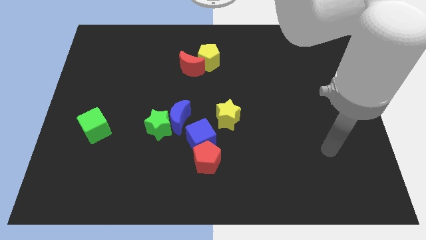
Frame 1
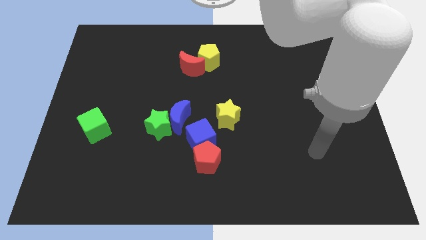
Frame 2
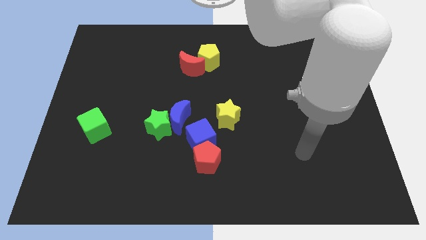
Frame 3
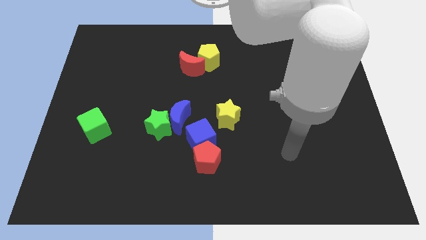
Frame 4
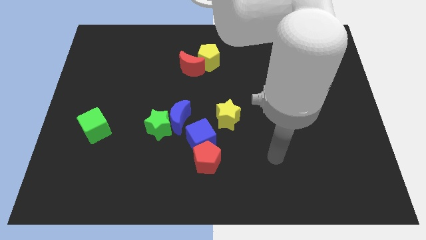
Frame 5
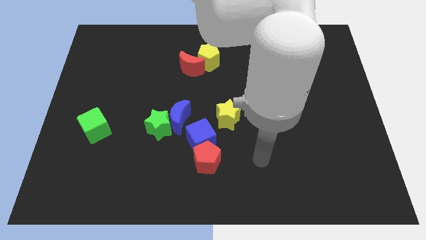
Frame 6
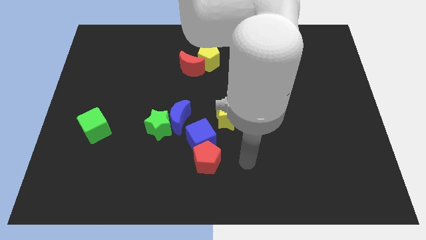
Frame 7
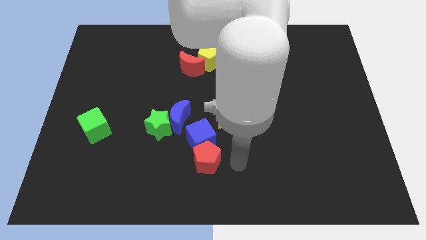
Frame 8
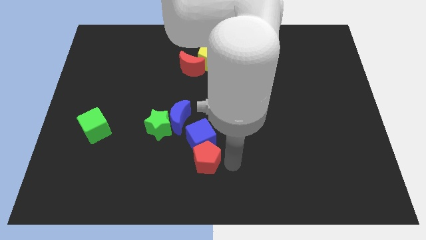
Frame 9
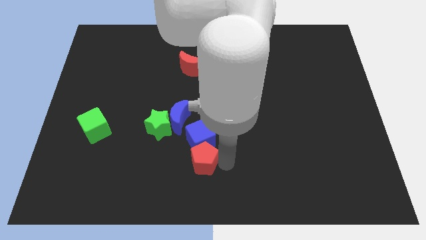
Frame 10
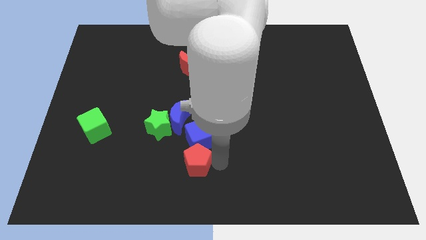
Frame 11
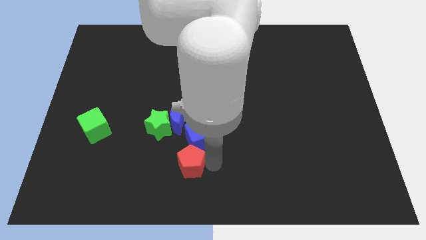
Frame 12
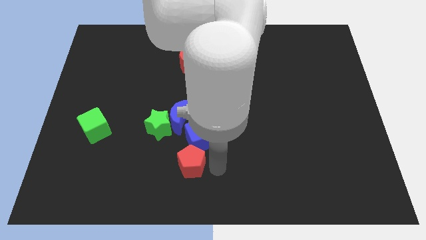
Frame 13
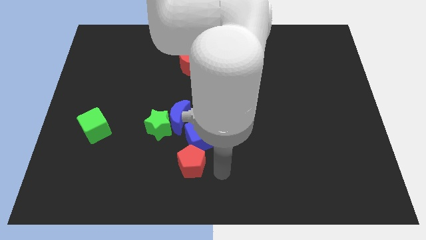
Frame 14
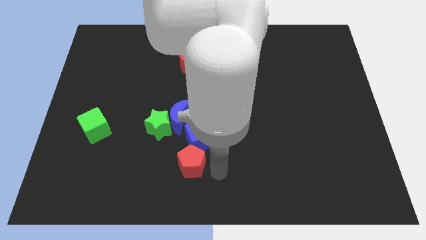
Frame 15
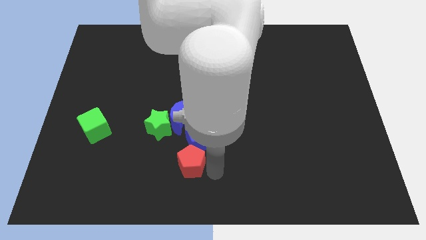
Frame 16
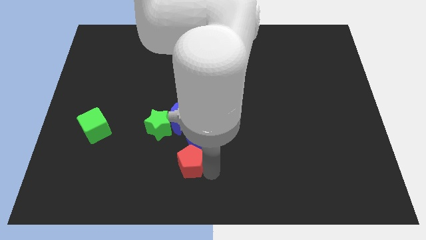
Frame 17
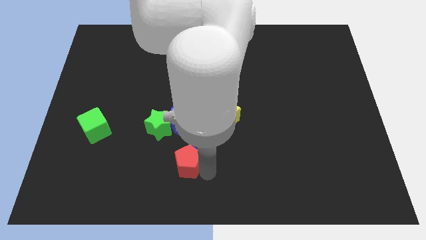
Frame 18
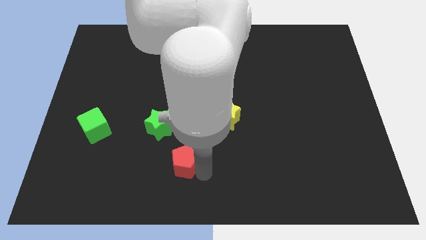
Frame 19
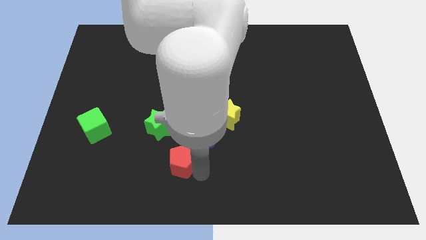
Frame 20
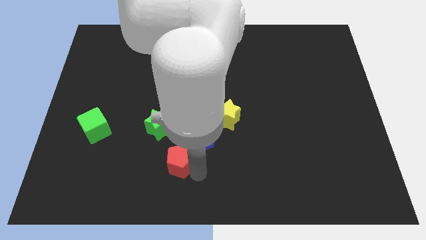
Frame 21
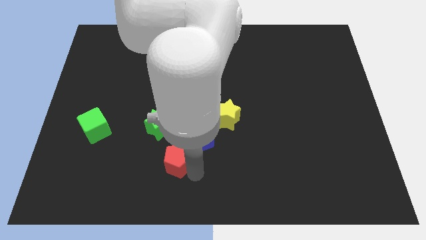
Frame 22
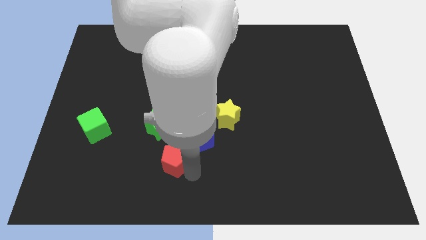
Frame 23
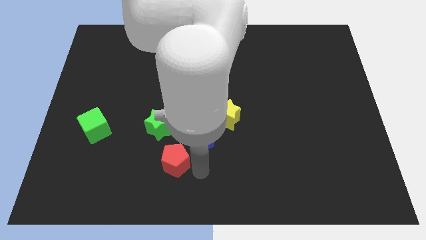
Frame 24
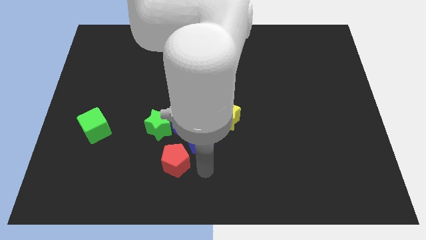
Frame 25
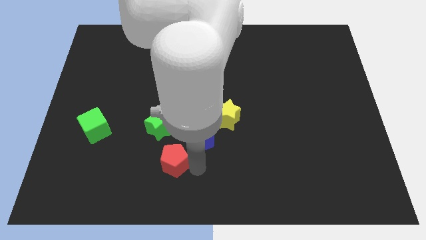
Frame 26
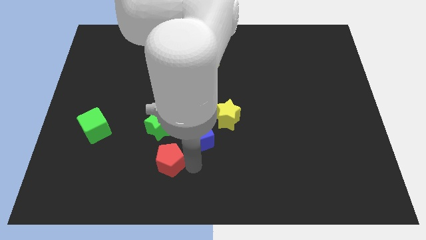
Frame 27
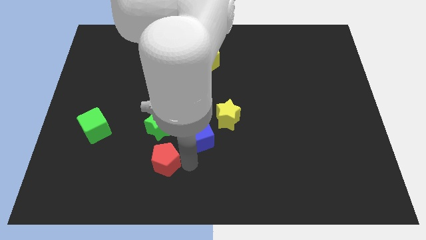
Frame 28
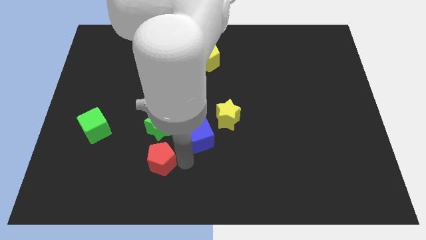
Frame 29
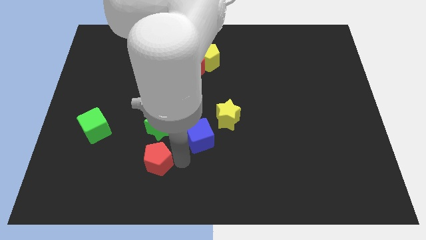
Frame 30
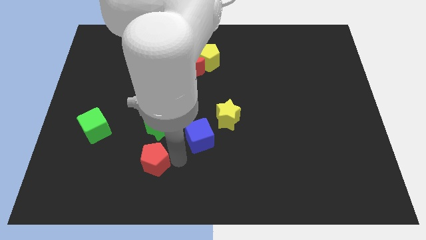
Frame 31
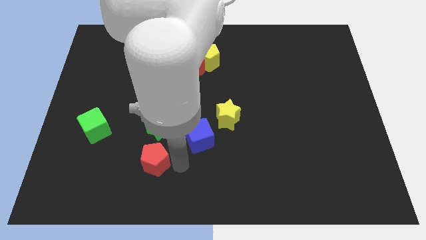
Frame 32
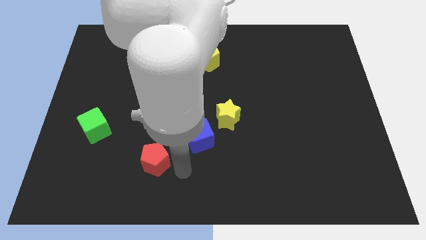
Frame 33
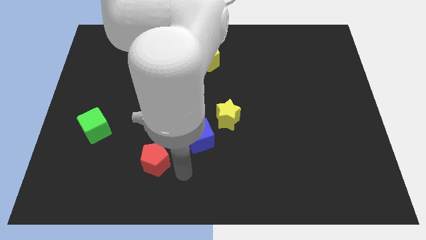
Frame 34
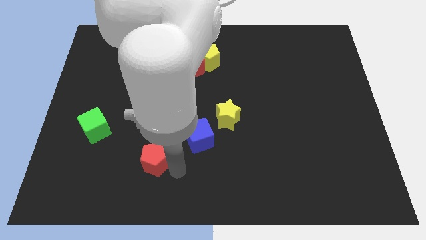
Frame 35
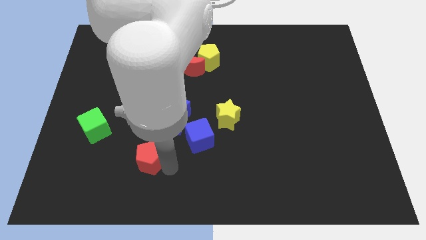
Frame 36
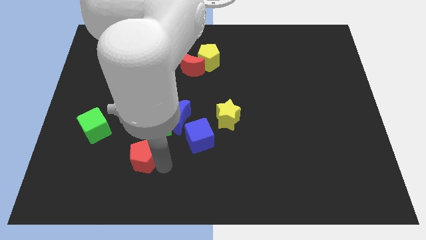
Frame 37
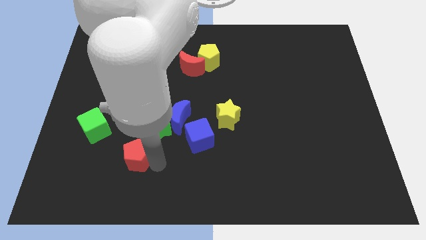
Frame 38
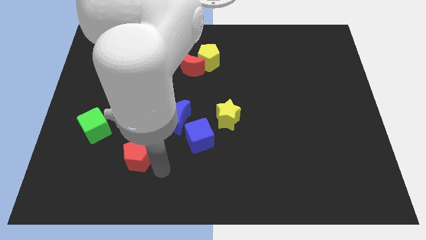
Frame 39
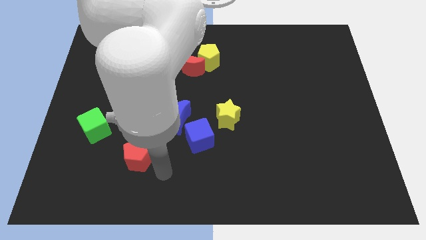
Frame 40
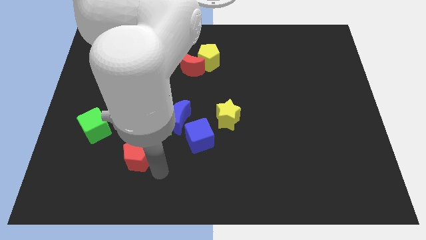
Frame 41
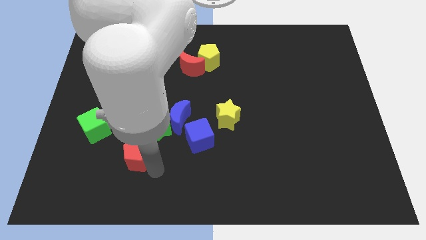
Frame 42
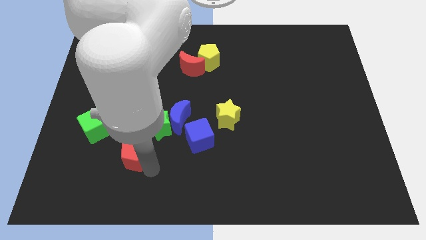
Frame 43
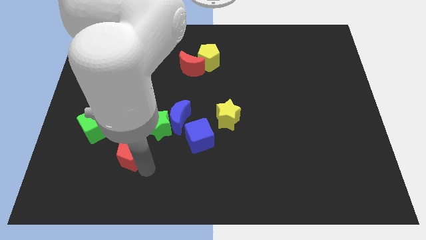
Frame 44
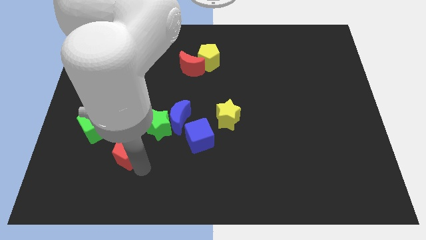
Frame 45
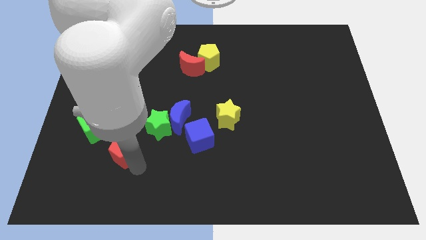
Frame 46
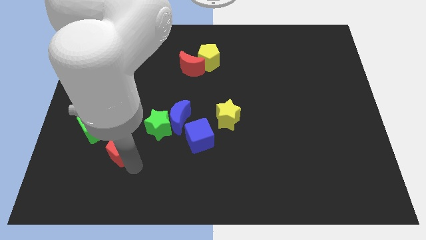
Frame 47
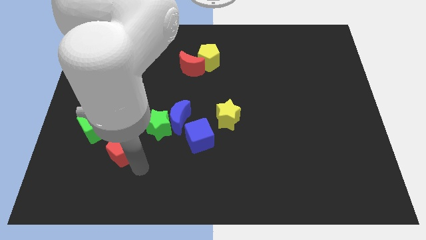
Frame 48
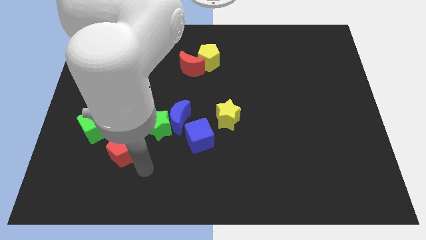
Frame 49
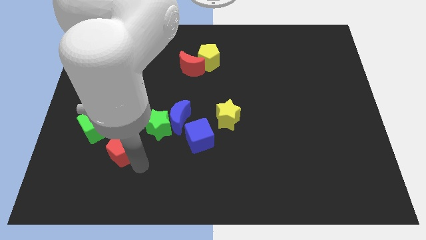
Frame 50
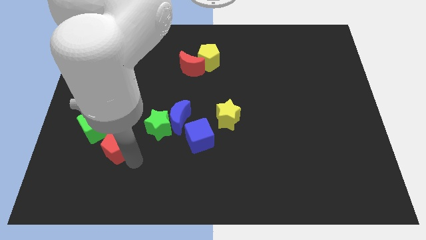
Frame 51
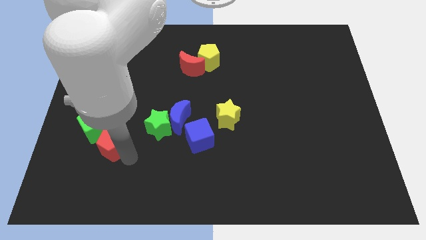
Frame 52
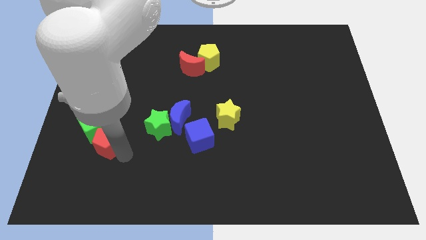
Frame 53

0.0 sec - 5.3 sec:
slide the red pentagon to the green cube

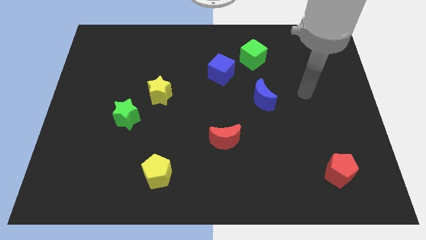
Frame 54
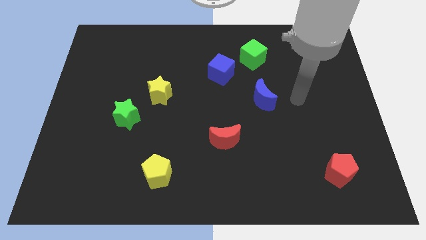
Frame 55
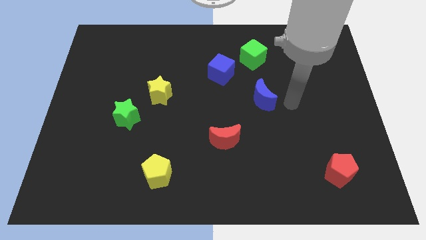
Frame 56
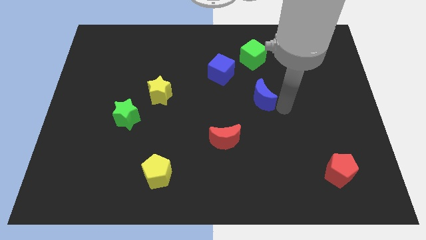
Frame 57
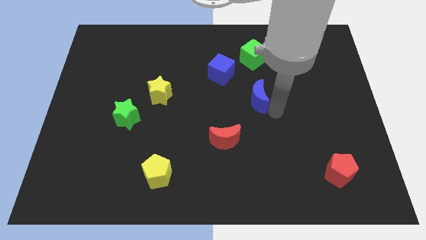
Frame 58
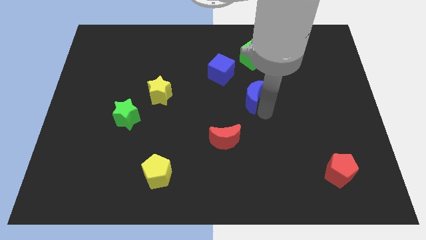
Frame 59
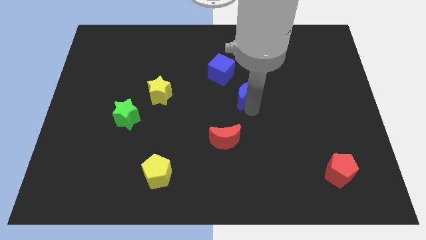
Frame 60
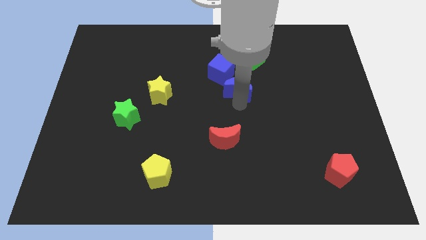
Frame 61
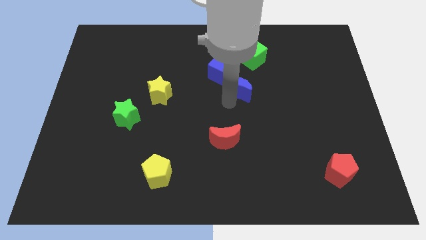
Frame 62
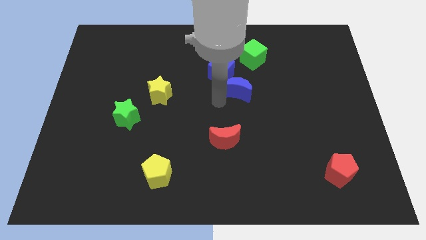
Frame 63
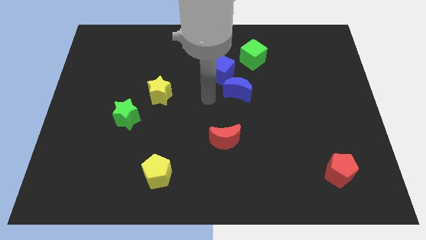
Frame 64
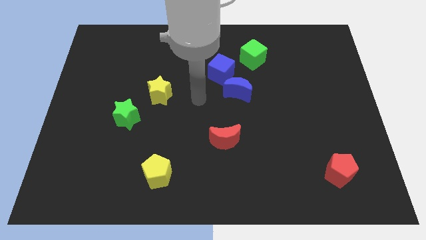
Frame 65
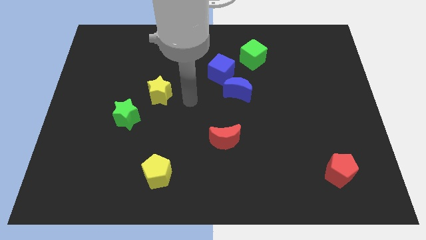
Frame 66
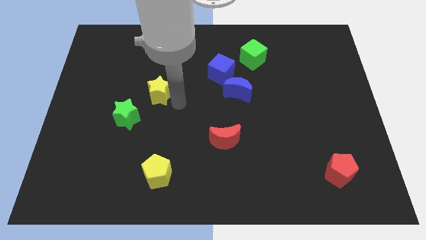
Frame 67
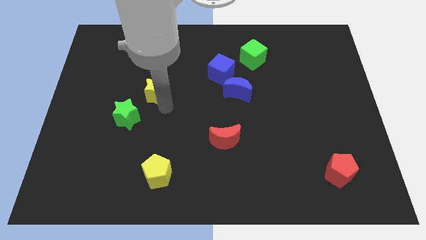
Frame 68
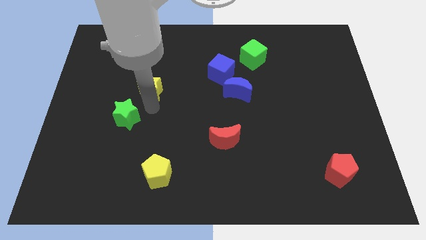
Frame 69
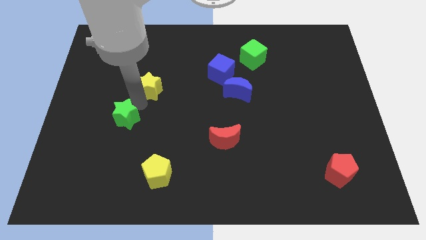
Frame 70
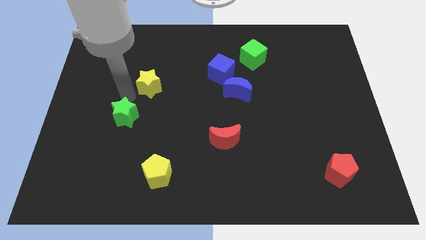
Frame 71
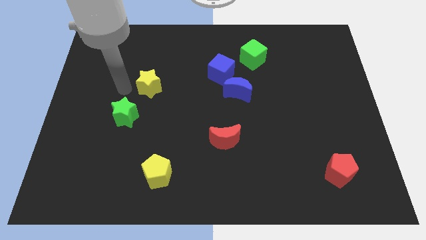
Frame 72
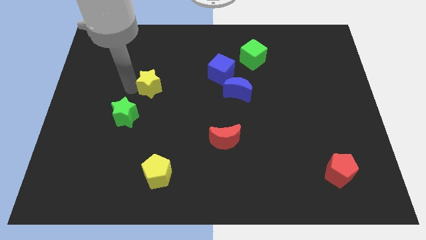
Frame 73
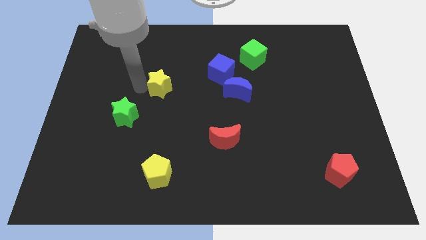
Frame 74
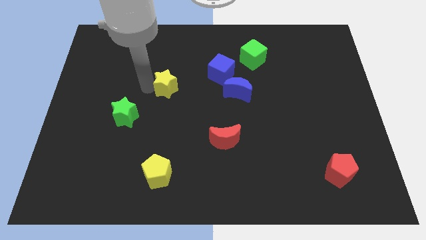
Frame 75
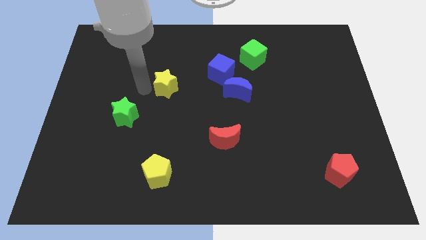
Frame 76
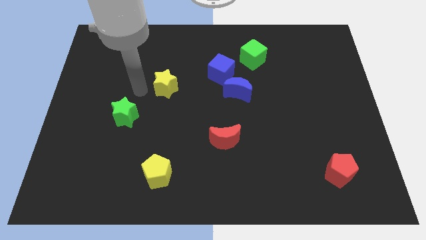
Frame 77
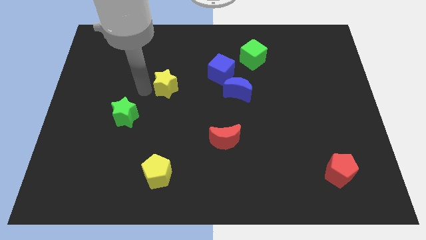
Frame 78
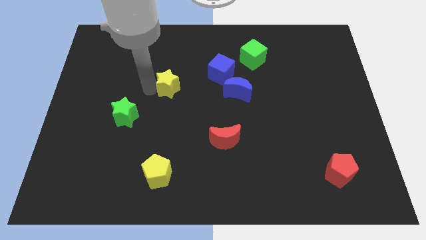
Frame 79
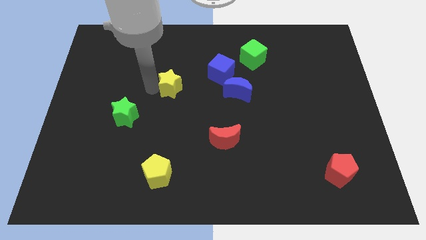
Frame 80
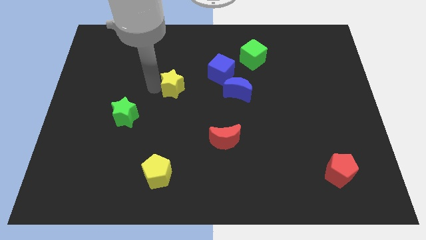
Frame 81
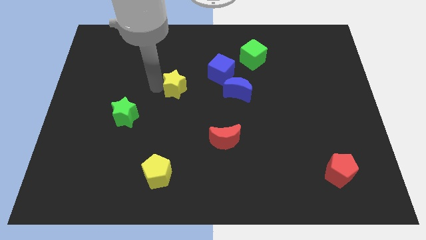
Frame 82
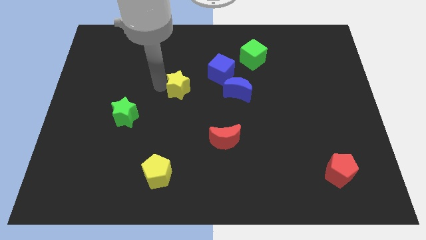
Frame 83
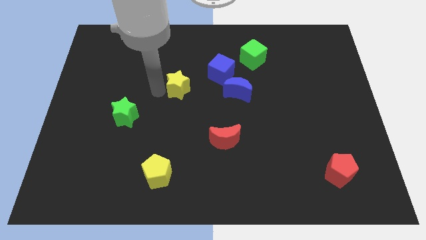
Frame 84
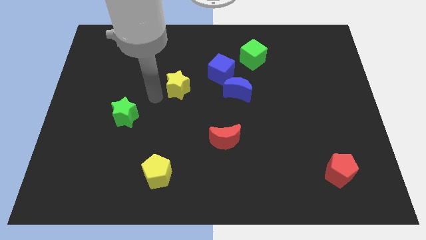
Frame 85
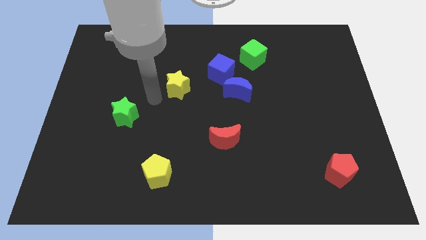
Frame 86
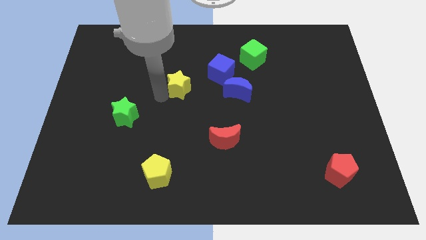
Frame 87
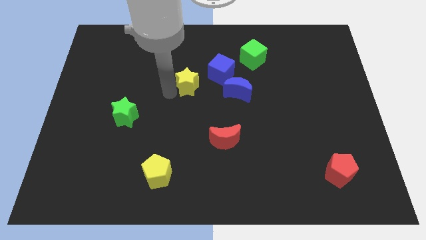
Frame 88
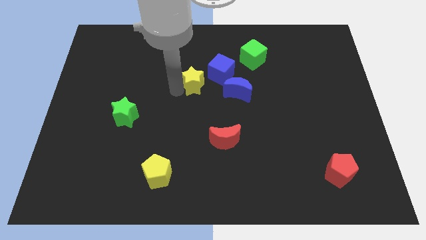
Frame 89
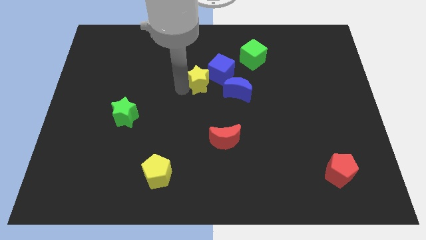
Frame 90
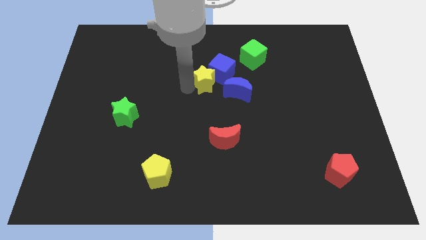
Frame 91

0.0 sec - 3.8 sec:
put the yellow star towards the blue cube
